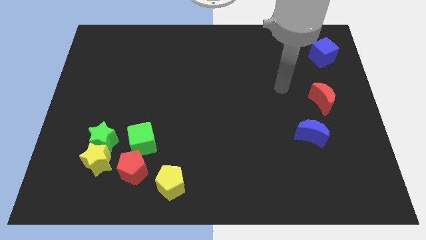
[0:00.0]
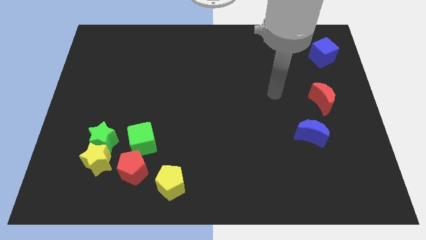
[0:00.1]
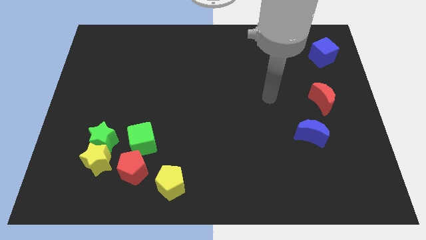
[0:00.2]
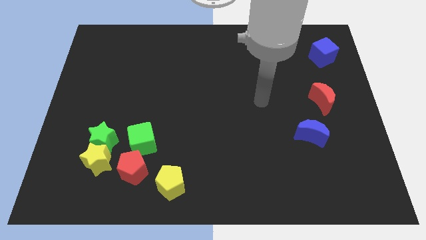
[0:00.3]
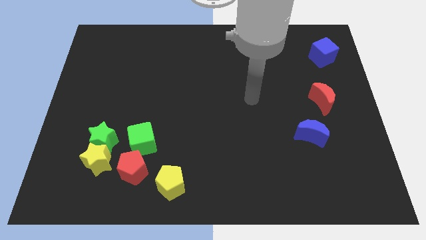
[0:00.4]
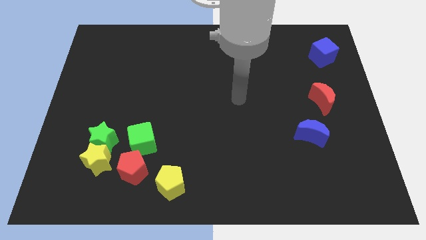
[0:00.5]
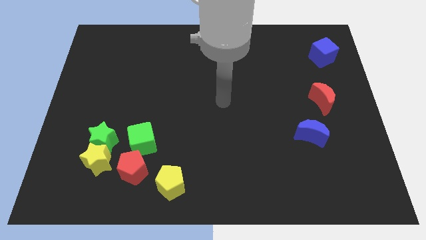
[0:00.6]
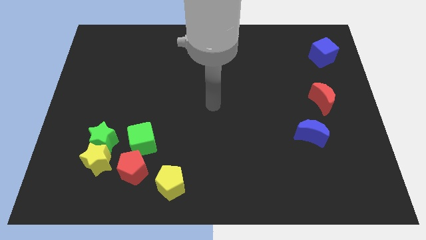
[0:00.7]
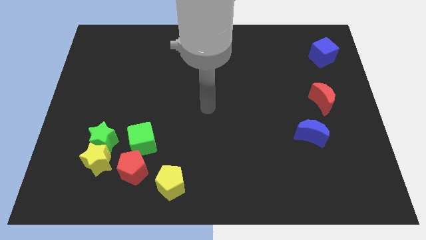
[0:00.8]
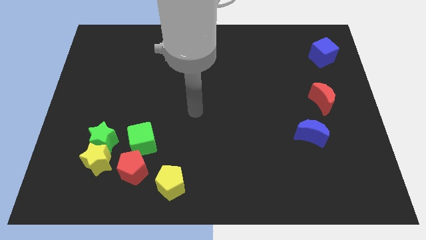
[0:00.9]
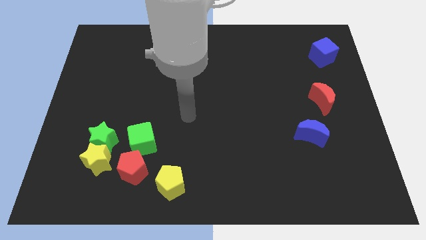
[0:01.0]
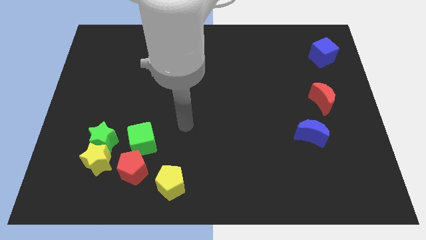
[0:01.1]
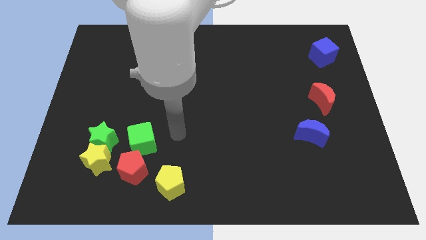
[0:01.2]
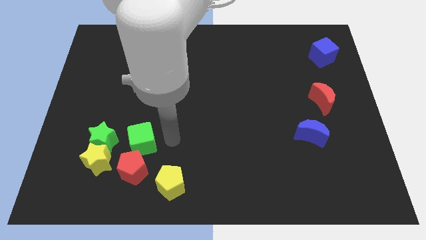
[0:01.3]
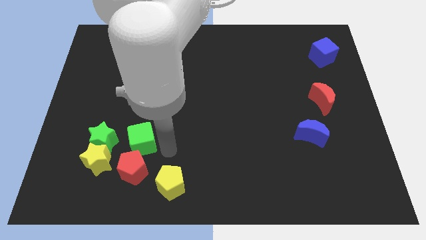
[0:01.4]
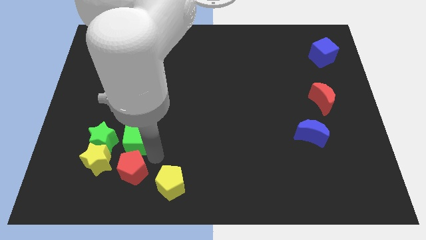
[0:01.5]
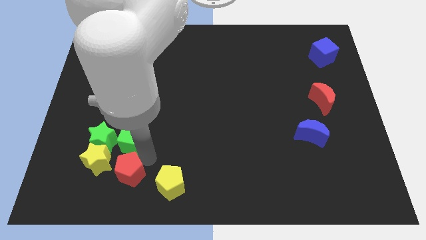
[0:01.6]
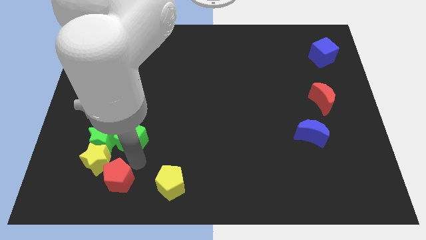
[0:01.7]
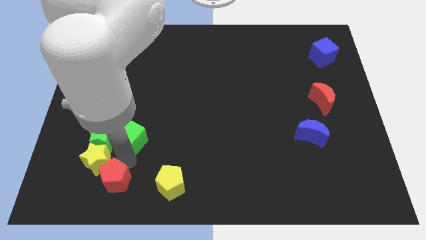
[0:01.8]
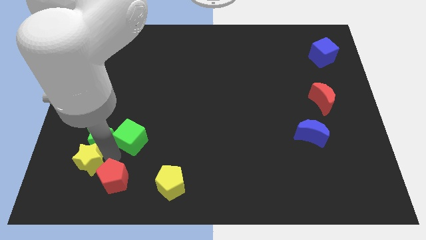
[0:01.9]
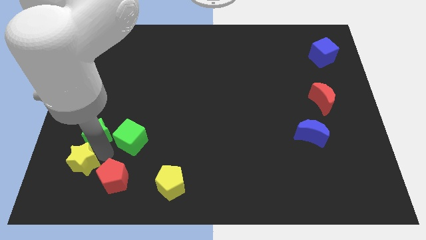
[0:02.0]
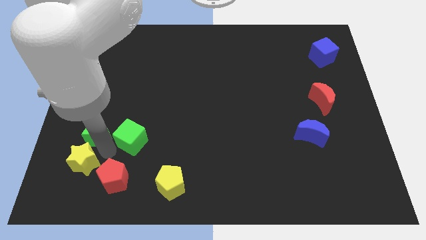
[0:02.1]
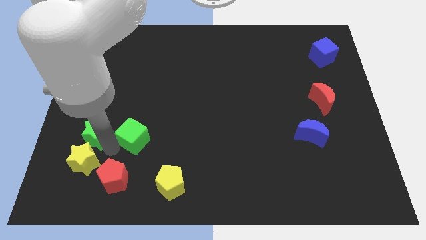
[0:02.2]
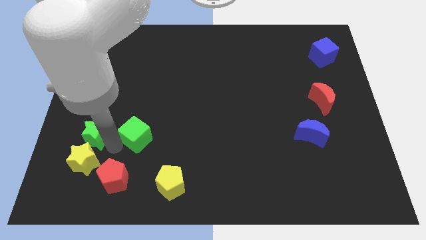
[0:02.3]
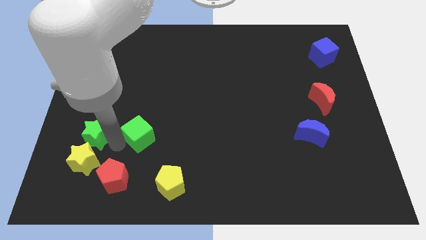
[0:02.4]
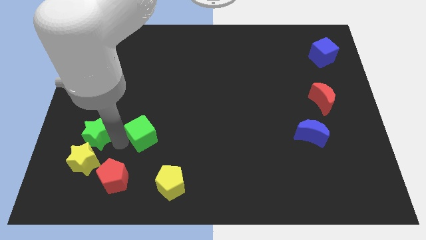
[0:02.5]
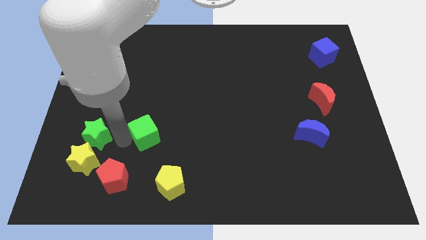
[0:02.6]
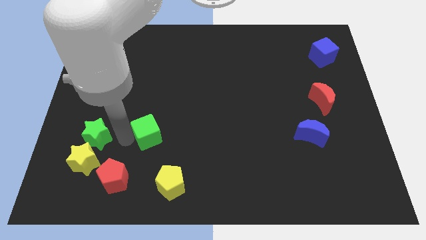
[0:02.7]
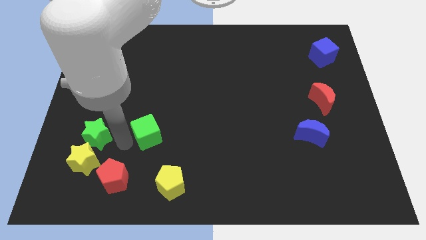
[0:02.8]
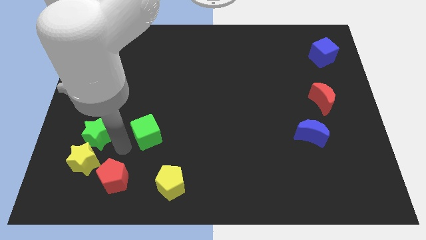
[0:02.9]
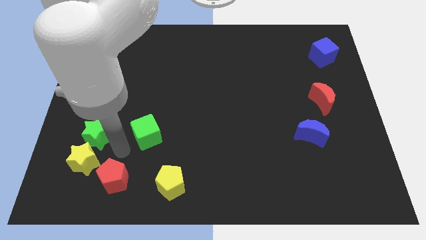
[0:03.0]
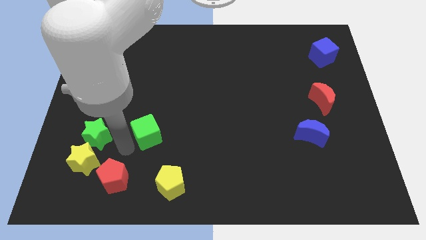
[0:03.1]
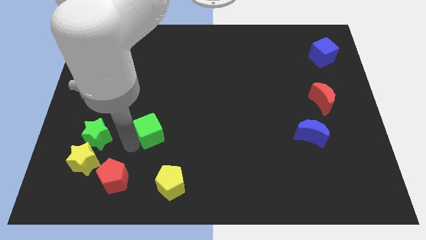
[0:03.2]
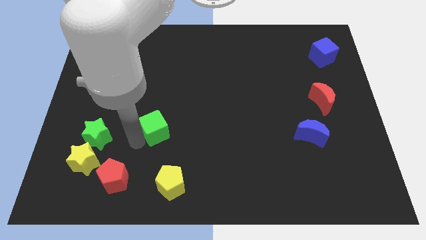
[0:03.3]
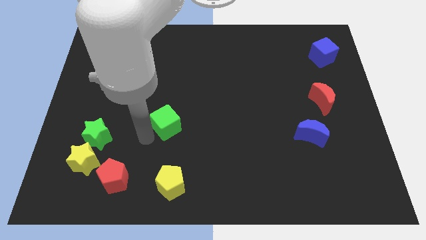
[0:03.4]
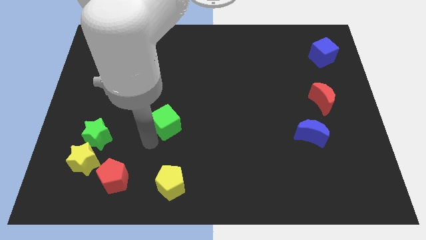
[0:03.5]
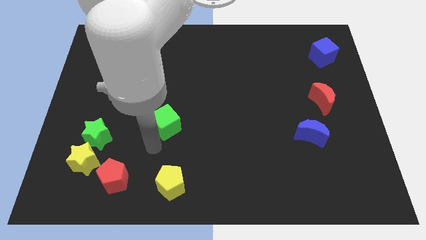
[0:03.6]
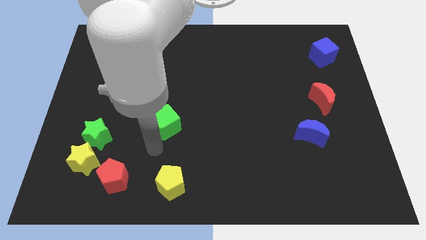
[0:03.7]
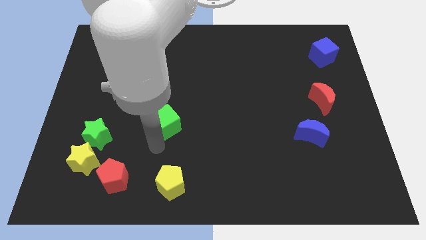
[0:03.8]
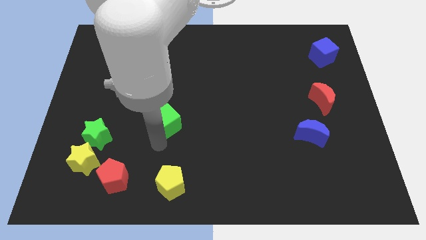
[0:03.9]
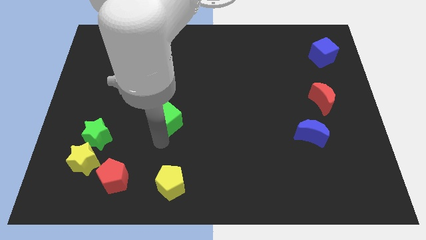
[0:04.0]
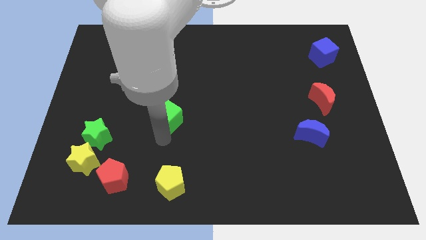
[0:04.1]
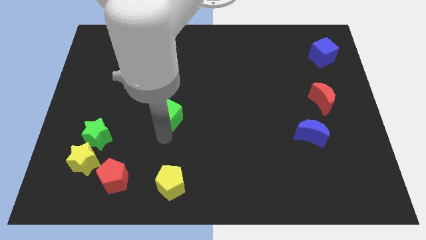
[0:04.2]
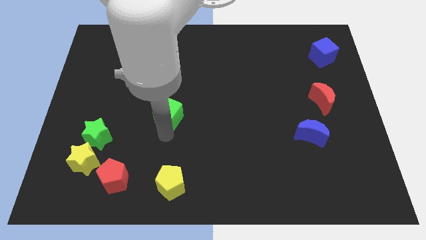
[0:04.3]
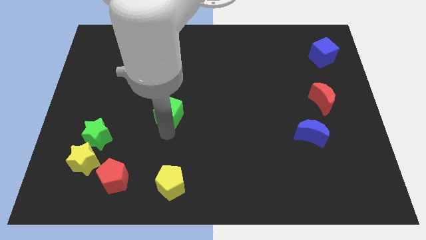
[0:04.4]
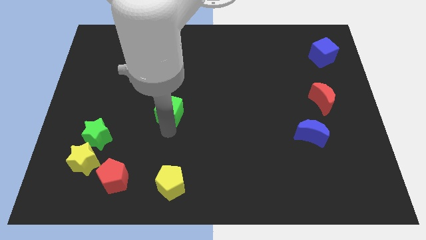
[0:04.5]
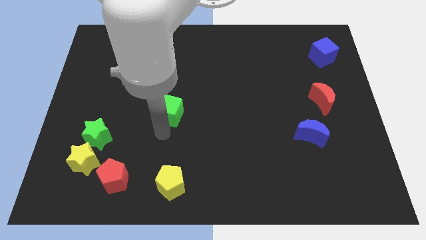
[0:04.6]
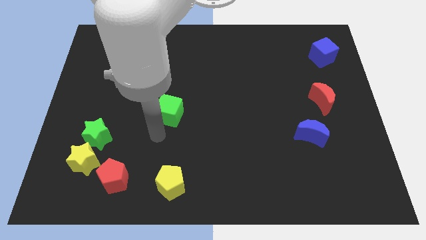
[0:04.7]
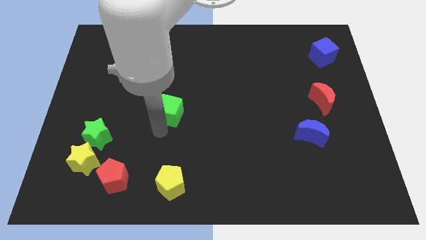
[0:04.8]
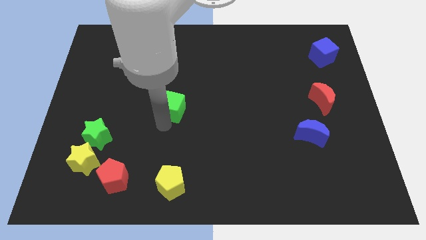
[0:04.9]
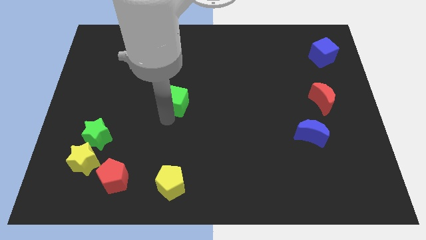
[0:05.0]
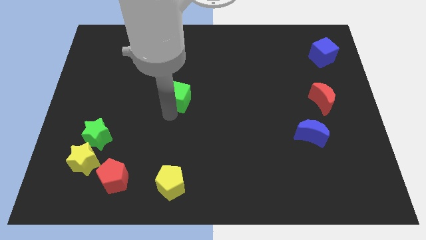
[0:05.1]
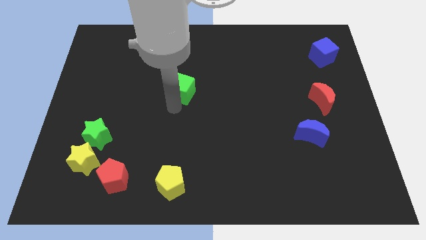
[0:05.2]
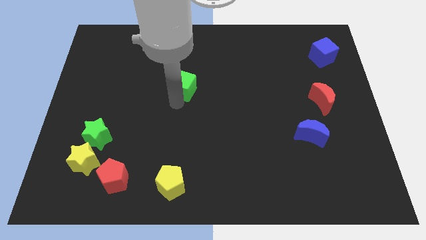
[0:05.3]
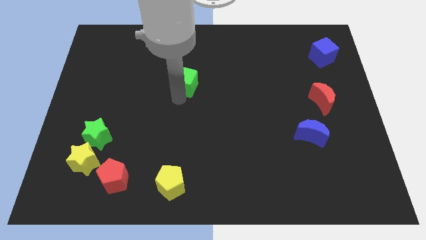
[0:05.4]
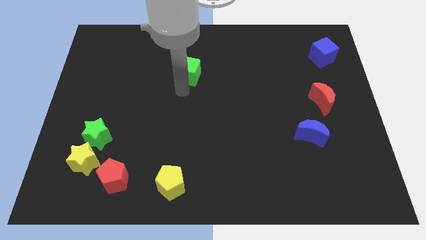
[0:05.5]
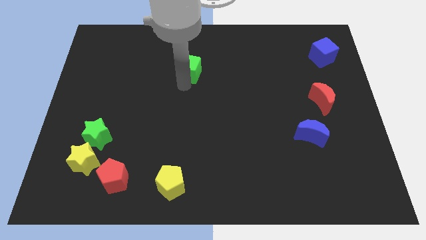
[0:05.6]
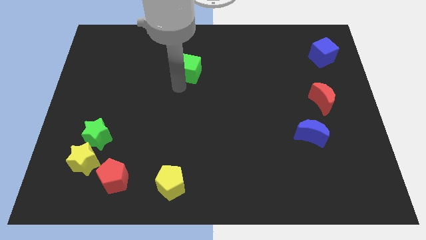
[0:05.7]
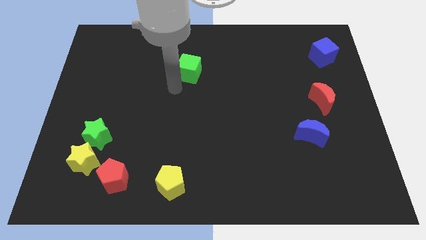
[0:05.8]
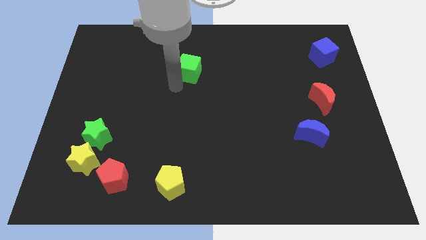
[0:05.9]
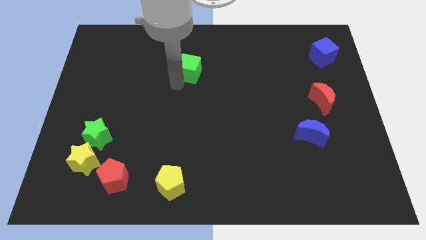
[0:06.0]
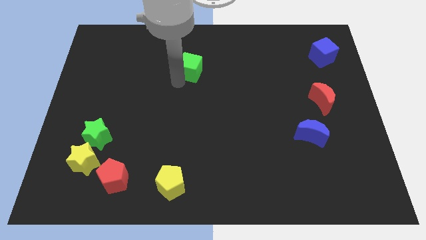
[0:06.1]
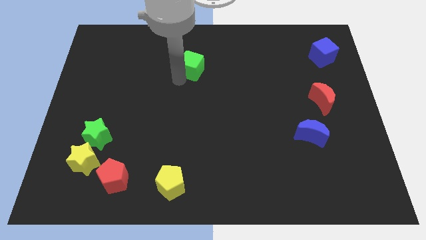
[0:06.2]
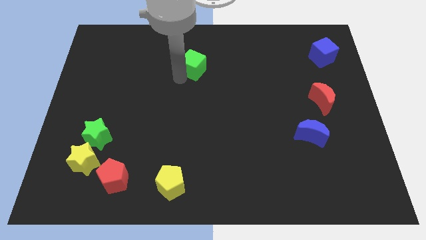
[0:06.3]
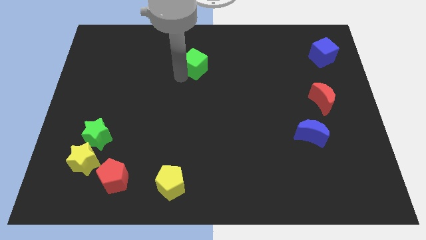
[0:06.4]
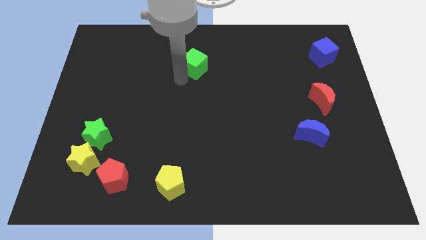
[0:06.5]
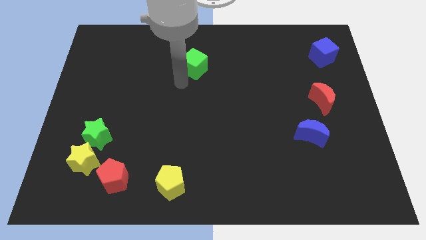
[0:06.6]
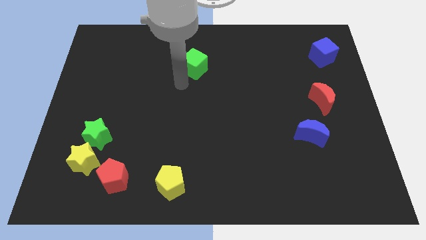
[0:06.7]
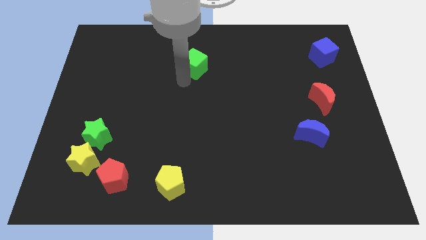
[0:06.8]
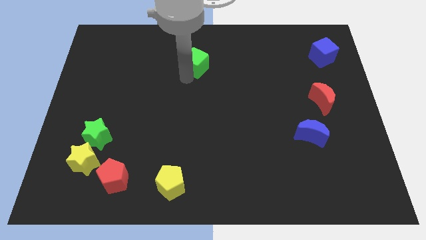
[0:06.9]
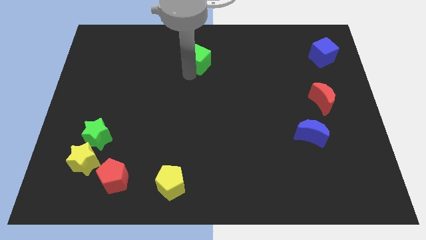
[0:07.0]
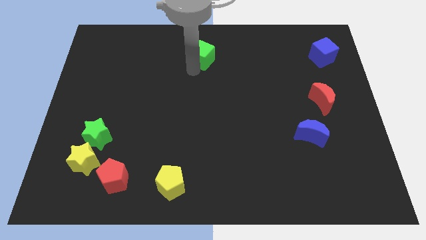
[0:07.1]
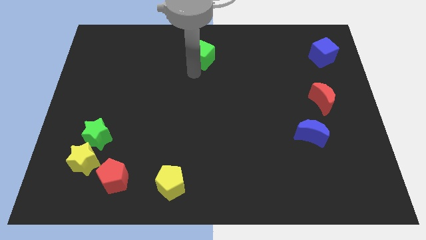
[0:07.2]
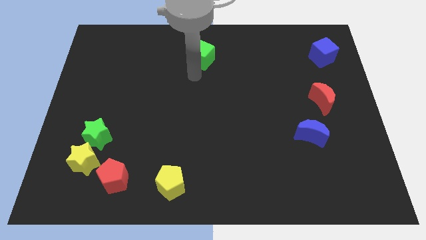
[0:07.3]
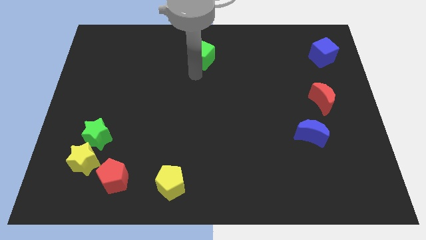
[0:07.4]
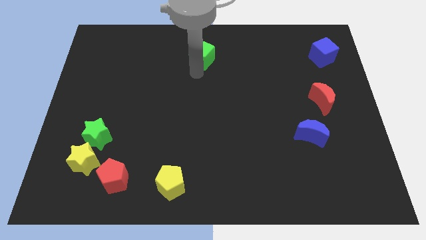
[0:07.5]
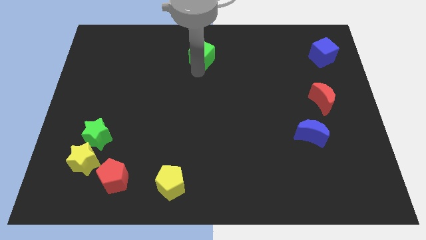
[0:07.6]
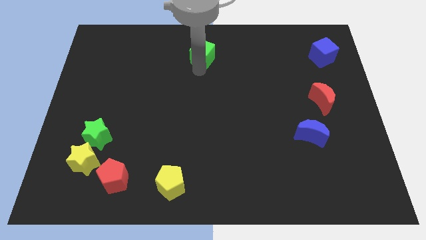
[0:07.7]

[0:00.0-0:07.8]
move the green cube to the top side
